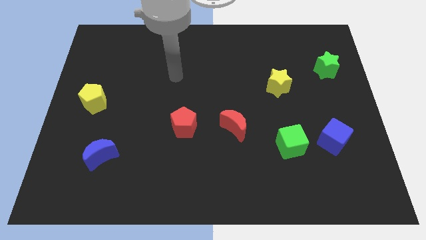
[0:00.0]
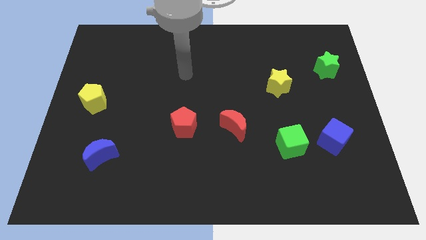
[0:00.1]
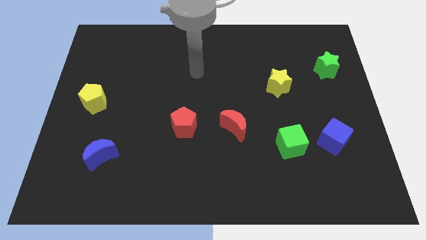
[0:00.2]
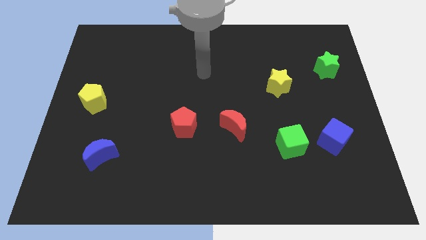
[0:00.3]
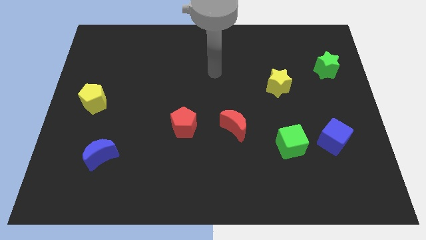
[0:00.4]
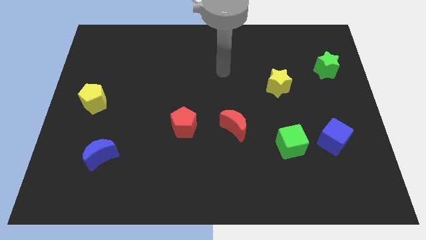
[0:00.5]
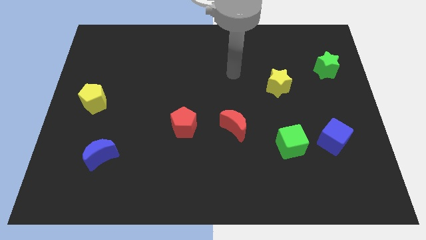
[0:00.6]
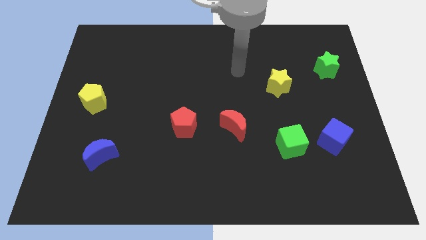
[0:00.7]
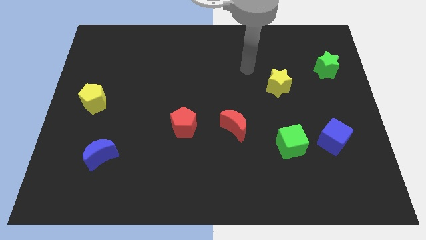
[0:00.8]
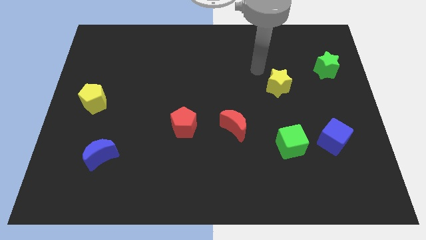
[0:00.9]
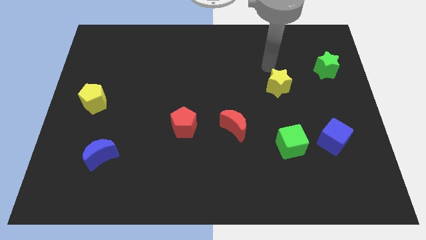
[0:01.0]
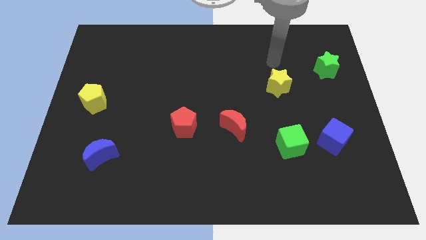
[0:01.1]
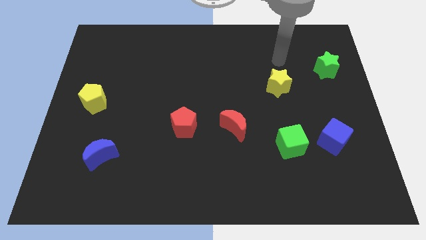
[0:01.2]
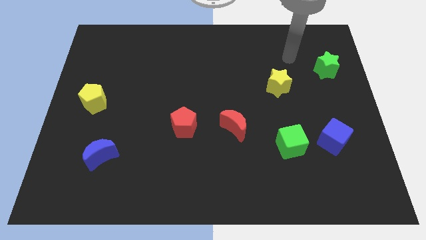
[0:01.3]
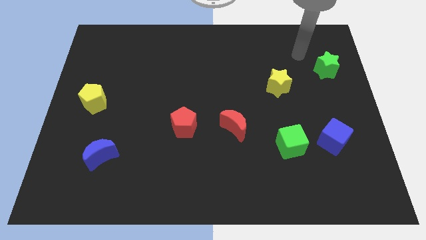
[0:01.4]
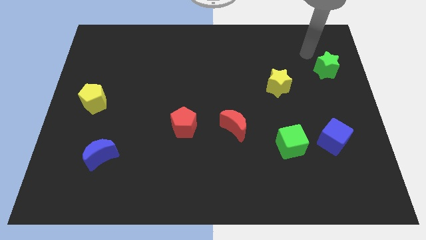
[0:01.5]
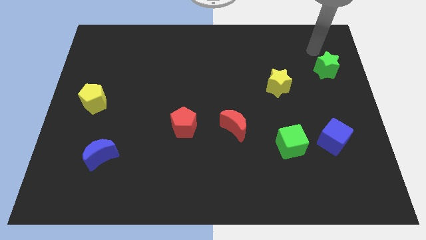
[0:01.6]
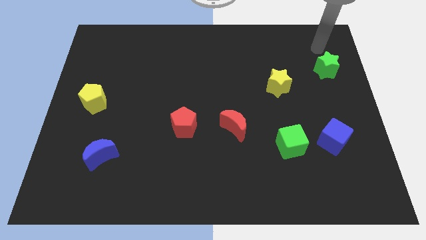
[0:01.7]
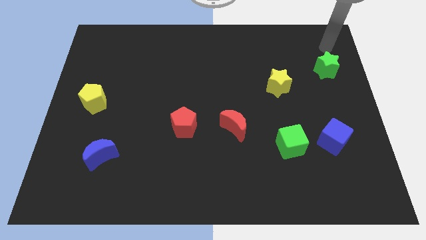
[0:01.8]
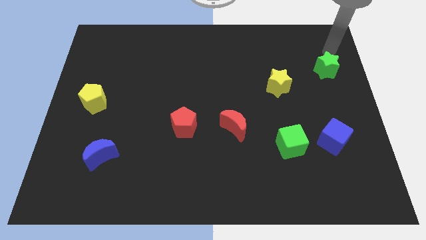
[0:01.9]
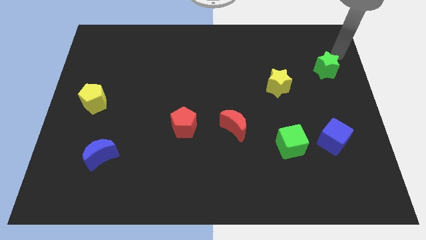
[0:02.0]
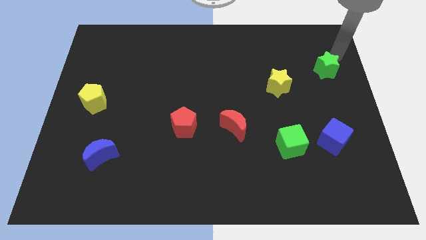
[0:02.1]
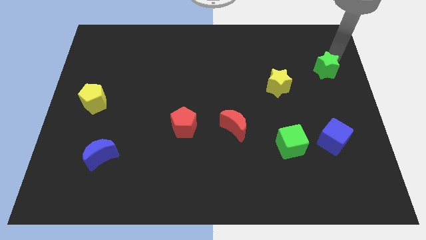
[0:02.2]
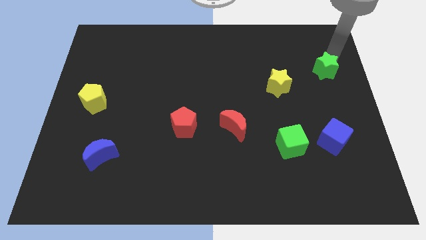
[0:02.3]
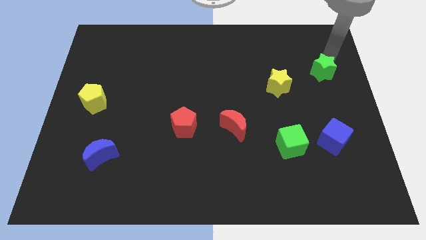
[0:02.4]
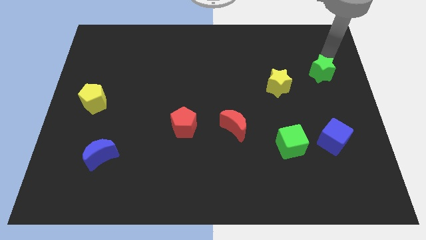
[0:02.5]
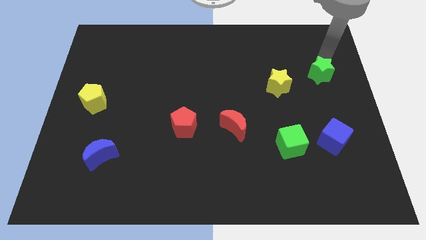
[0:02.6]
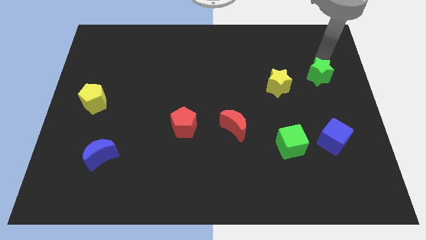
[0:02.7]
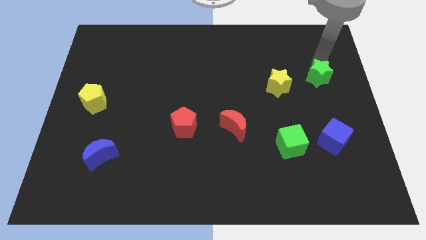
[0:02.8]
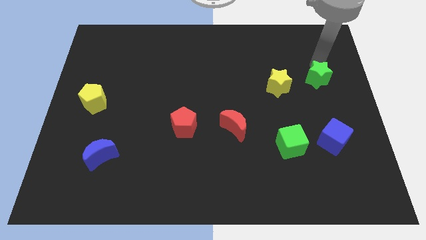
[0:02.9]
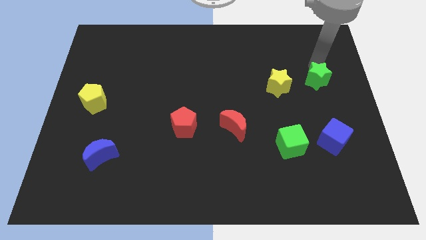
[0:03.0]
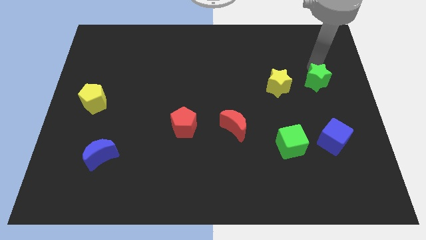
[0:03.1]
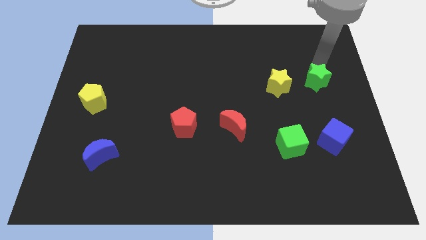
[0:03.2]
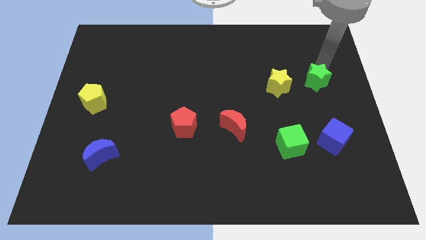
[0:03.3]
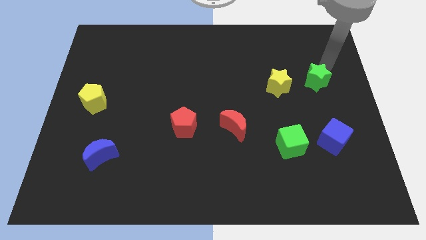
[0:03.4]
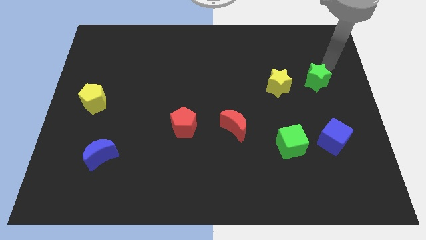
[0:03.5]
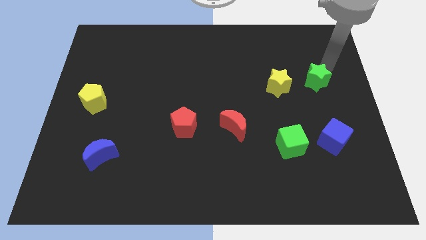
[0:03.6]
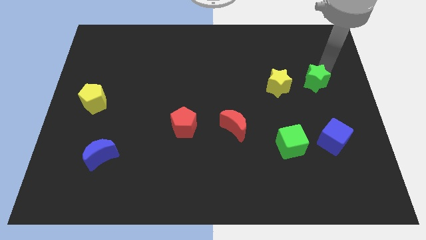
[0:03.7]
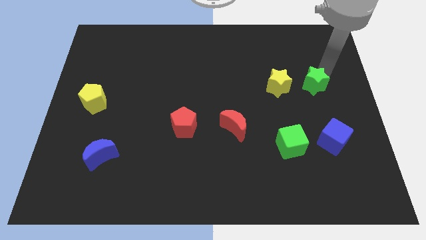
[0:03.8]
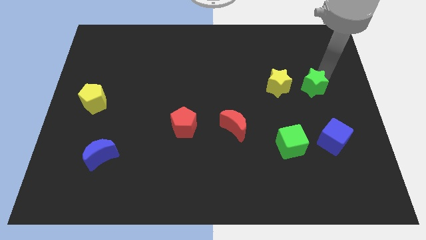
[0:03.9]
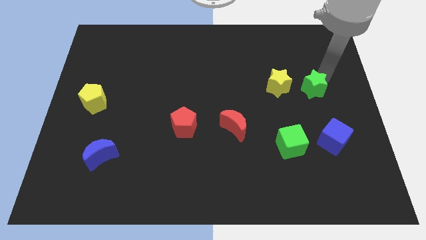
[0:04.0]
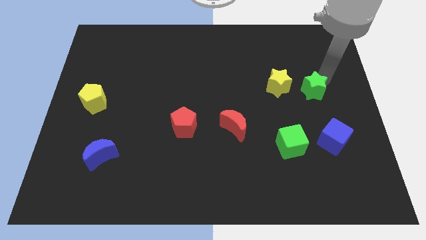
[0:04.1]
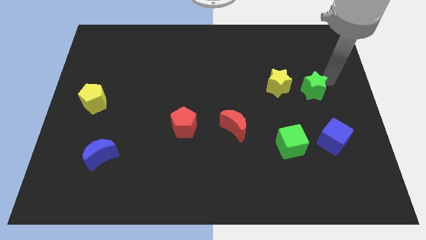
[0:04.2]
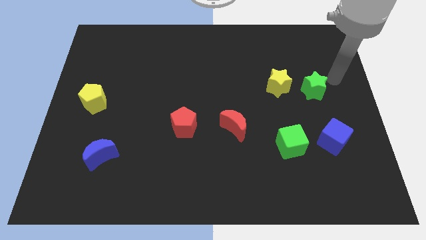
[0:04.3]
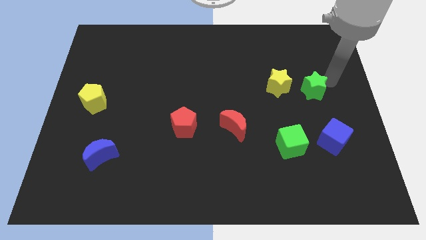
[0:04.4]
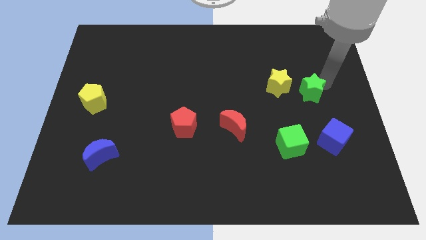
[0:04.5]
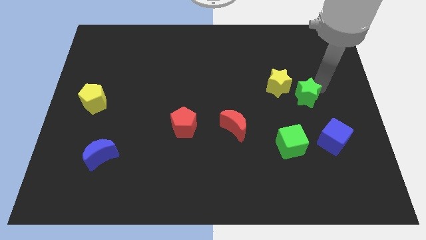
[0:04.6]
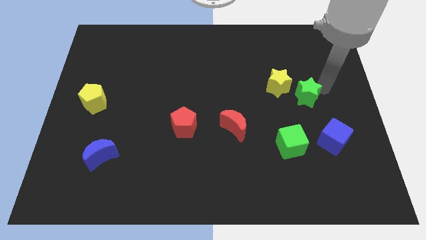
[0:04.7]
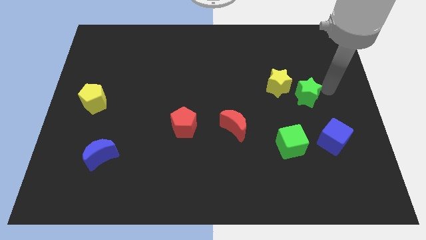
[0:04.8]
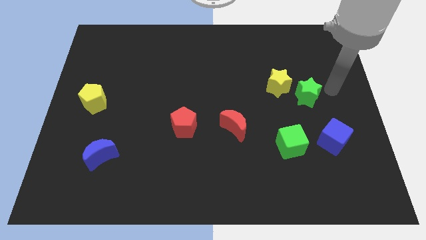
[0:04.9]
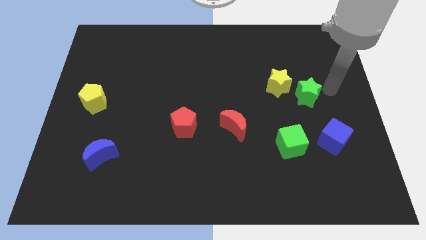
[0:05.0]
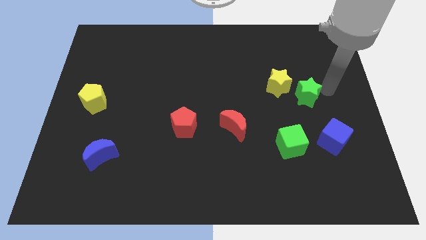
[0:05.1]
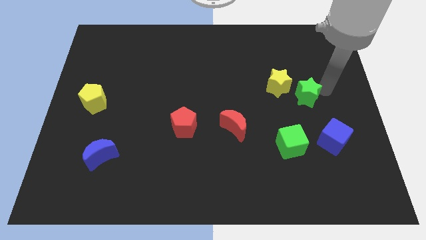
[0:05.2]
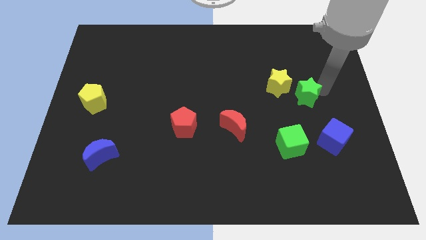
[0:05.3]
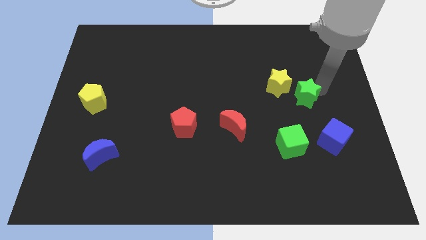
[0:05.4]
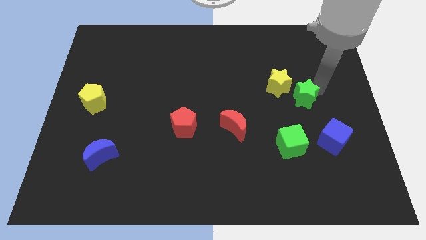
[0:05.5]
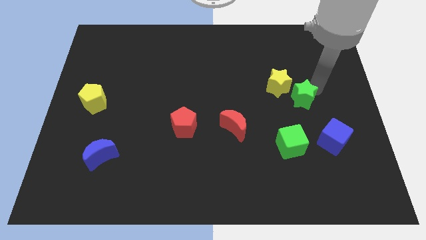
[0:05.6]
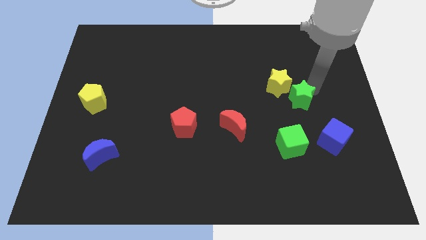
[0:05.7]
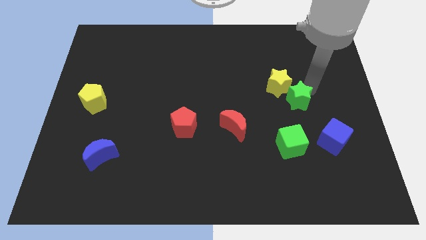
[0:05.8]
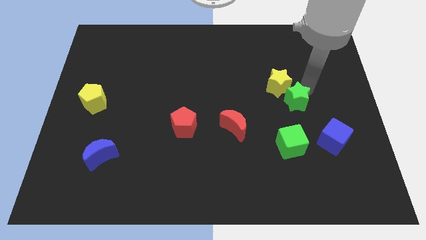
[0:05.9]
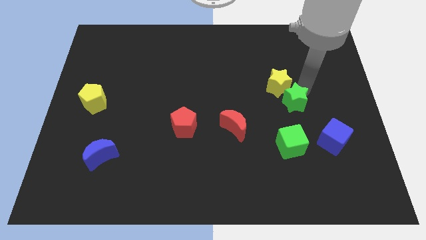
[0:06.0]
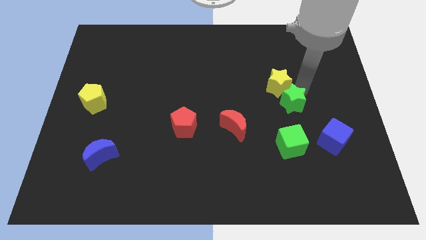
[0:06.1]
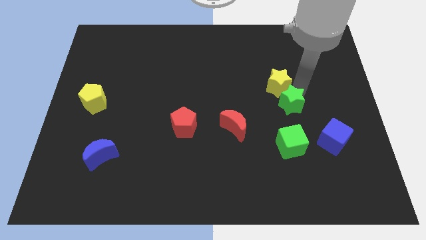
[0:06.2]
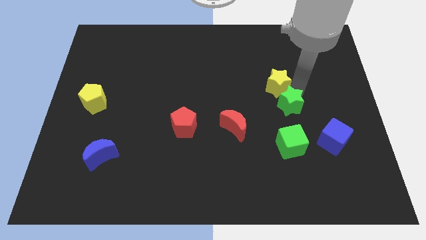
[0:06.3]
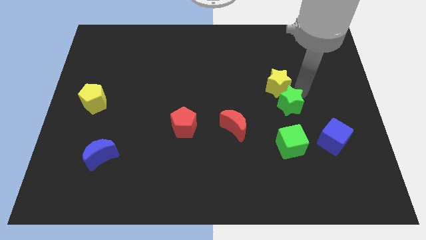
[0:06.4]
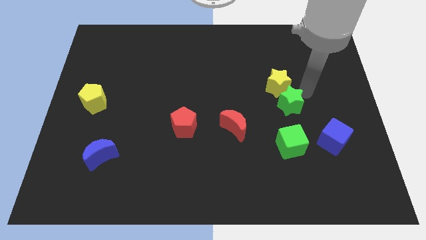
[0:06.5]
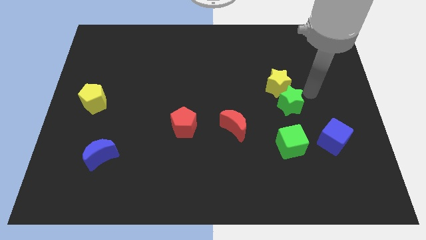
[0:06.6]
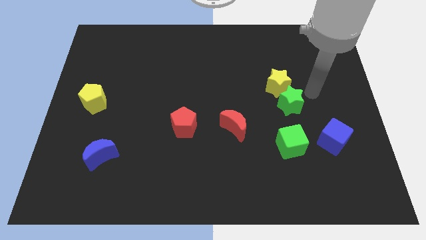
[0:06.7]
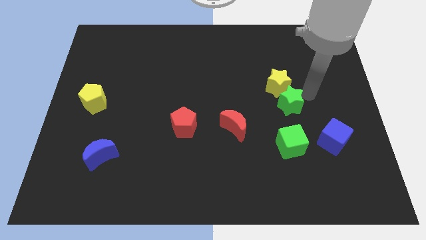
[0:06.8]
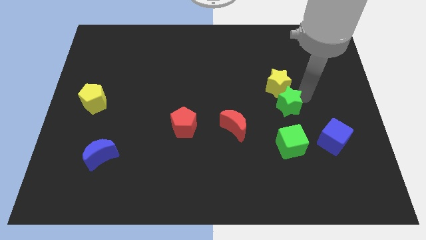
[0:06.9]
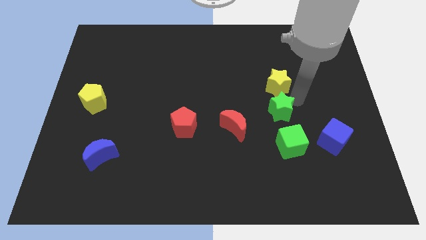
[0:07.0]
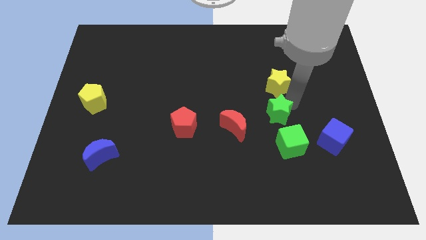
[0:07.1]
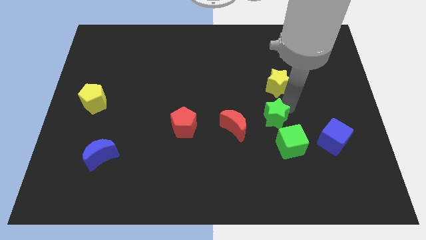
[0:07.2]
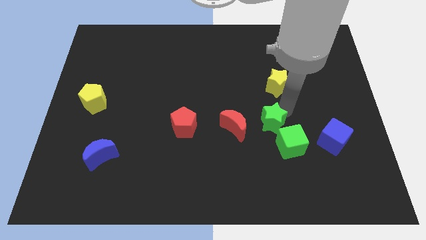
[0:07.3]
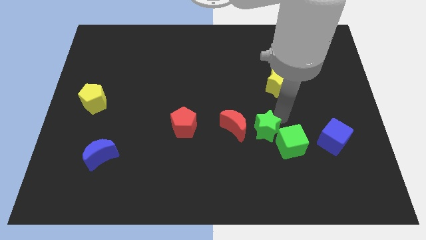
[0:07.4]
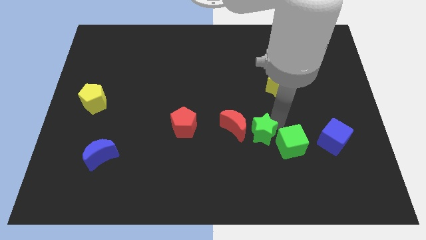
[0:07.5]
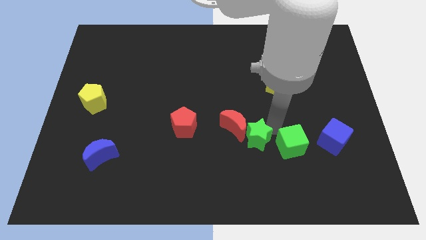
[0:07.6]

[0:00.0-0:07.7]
slide the green star to the red moon
